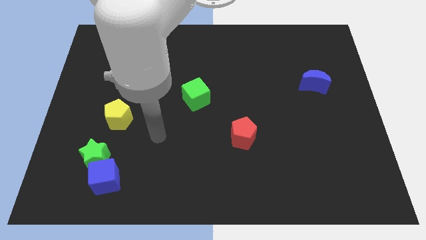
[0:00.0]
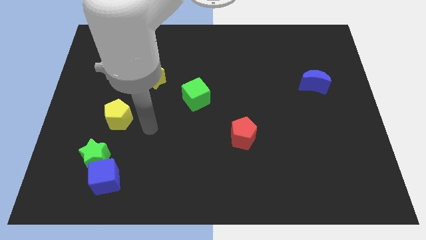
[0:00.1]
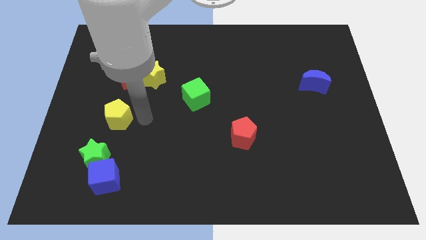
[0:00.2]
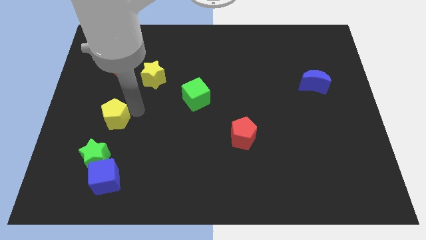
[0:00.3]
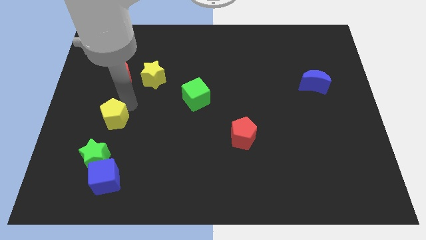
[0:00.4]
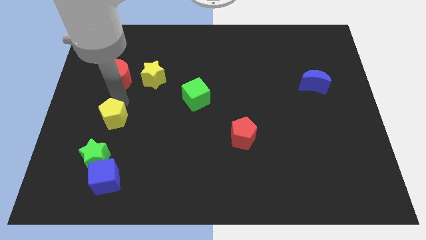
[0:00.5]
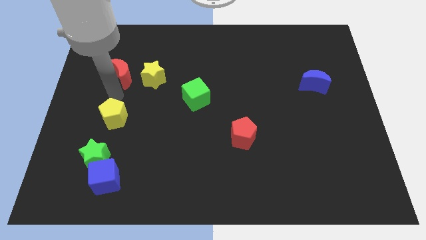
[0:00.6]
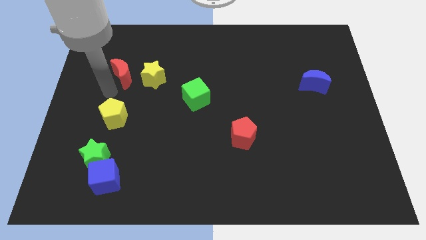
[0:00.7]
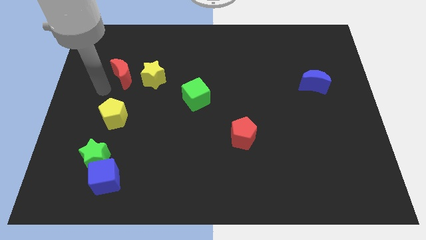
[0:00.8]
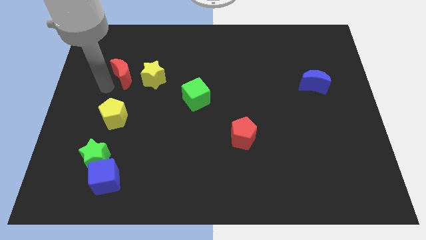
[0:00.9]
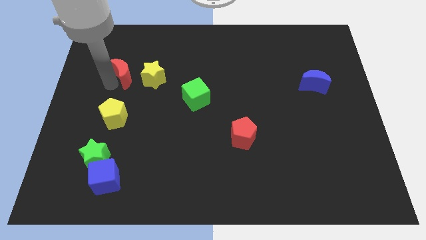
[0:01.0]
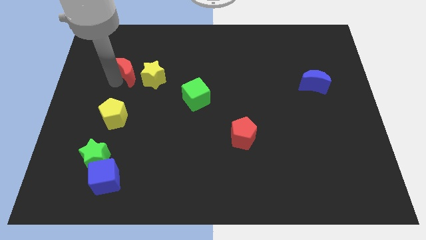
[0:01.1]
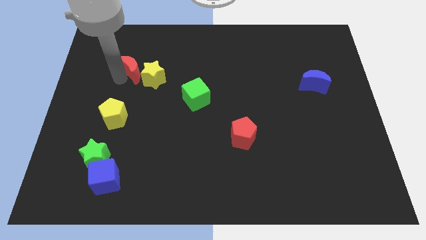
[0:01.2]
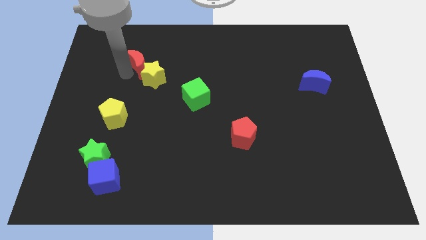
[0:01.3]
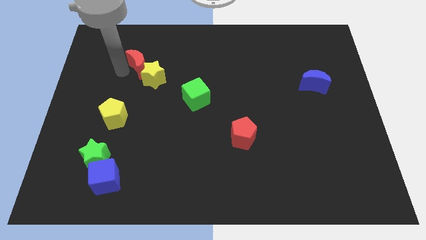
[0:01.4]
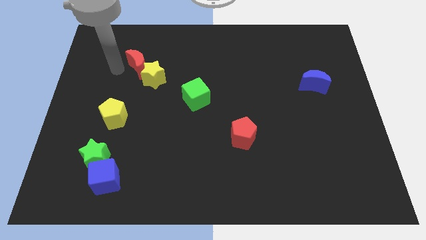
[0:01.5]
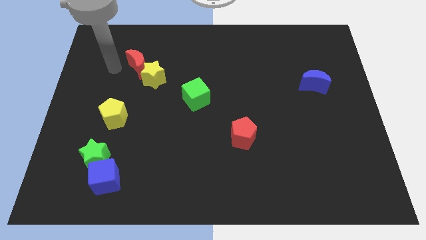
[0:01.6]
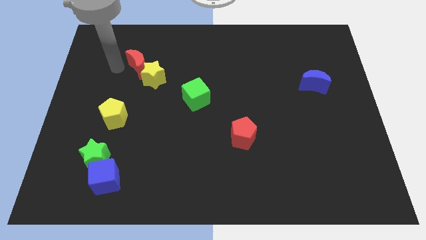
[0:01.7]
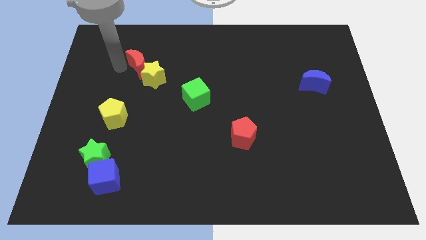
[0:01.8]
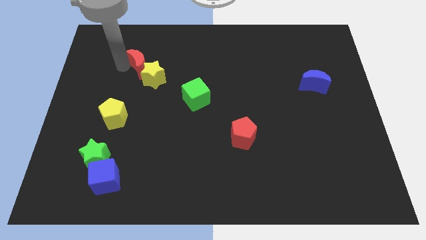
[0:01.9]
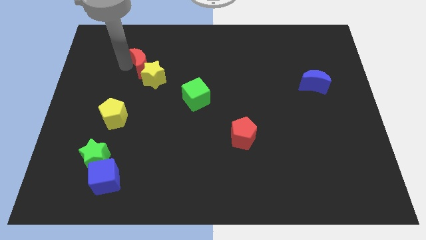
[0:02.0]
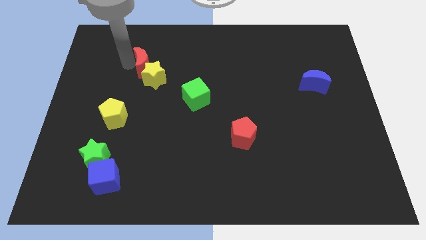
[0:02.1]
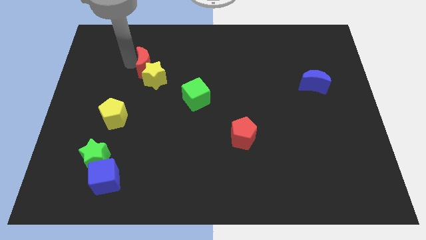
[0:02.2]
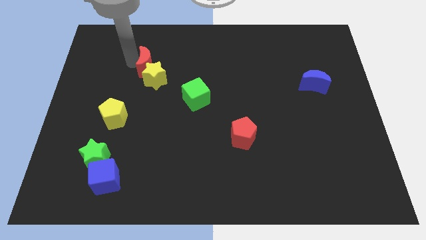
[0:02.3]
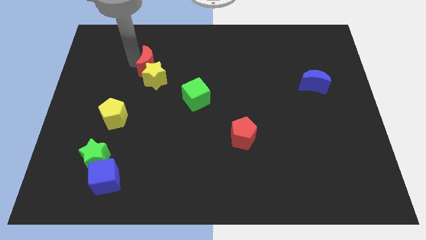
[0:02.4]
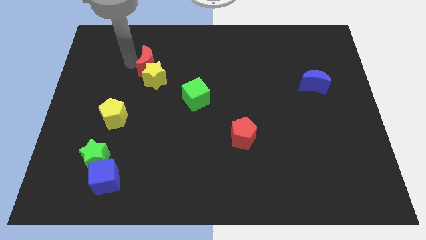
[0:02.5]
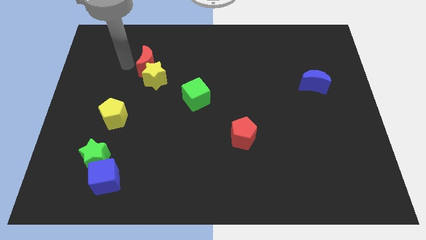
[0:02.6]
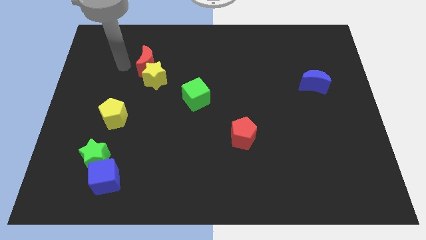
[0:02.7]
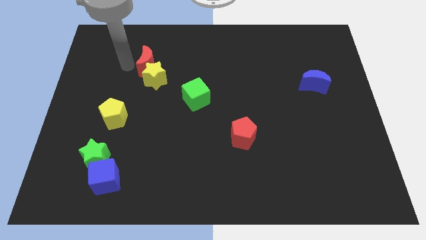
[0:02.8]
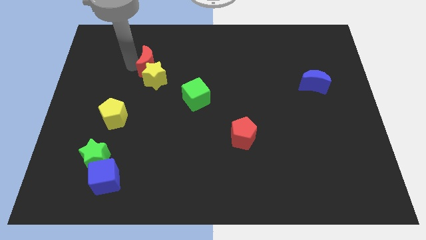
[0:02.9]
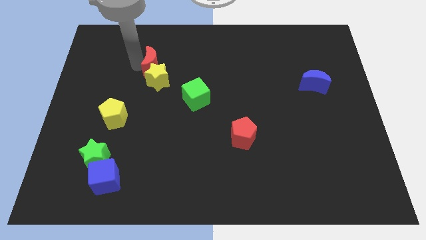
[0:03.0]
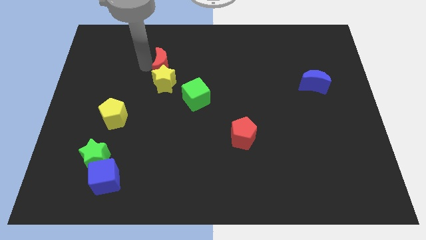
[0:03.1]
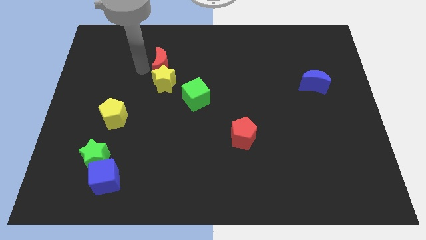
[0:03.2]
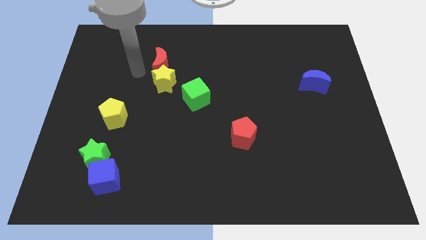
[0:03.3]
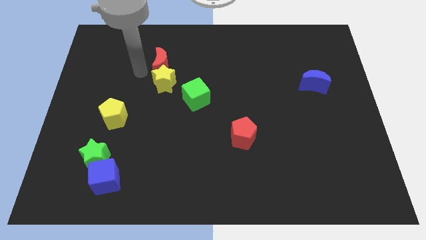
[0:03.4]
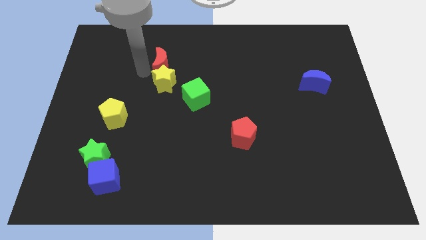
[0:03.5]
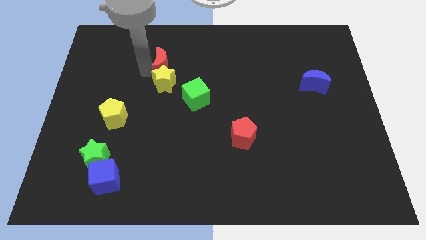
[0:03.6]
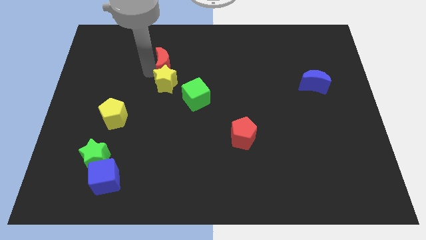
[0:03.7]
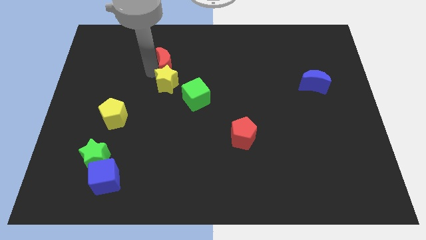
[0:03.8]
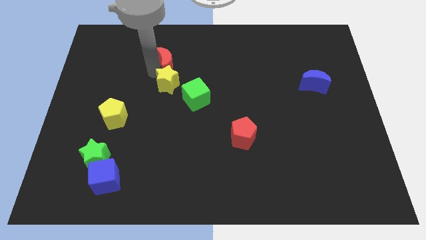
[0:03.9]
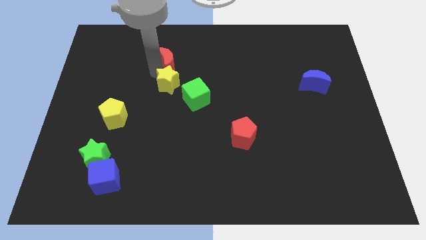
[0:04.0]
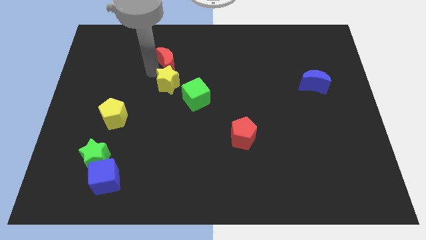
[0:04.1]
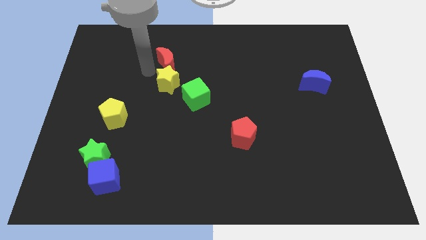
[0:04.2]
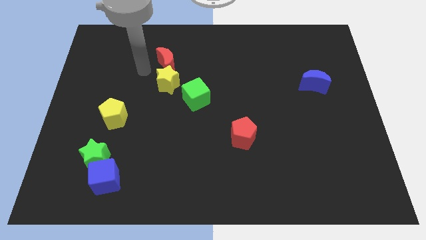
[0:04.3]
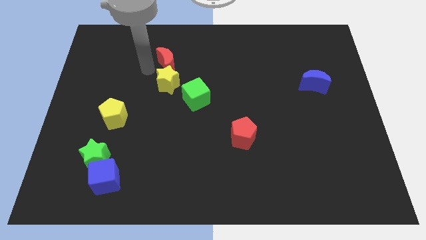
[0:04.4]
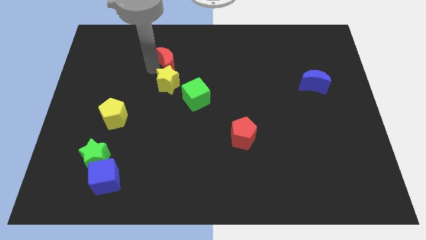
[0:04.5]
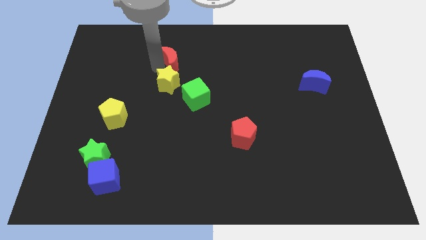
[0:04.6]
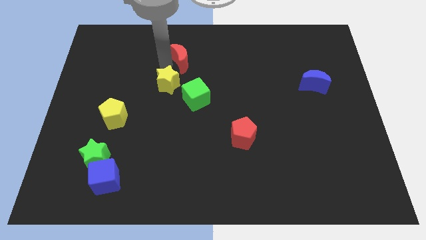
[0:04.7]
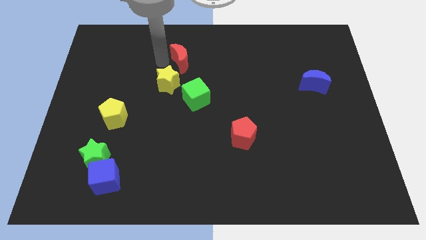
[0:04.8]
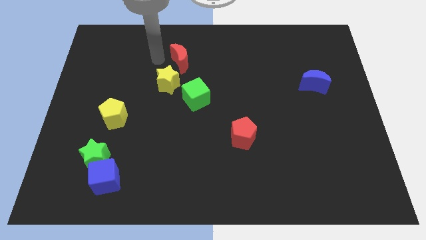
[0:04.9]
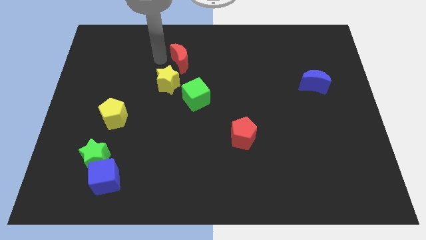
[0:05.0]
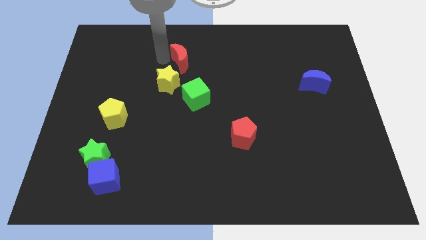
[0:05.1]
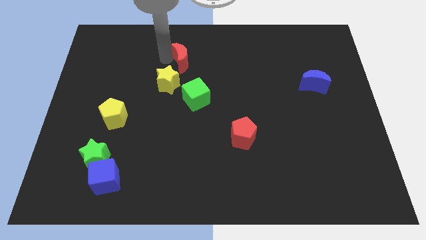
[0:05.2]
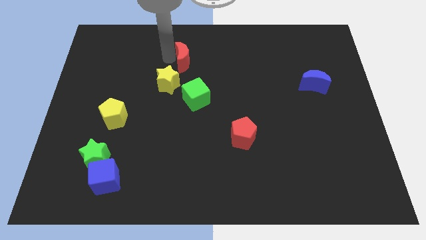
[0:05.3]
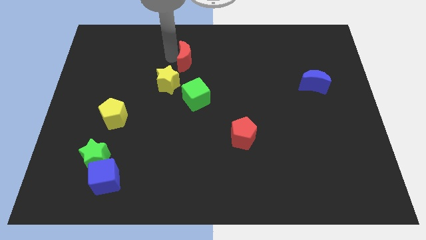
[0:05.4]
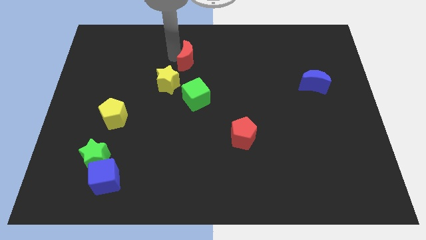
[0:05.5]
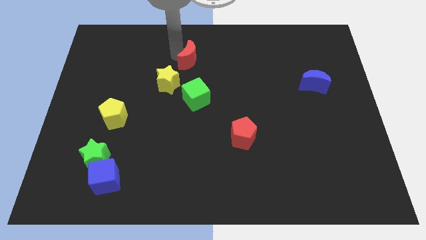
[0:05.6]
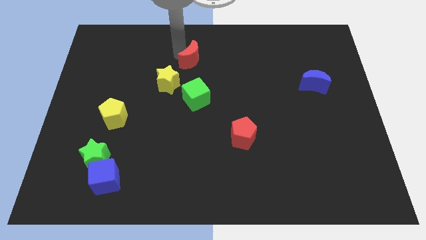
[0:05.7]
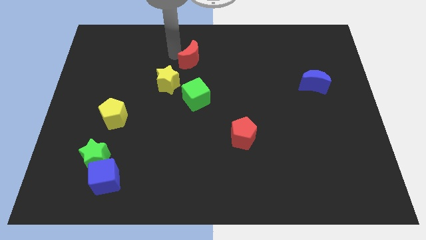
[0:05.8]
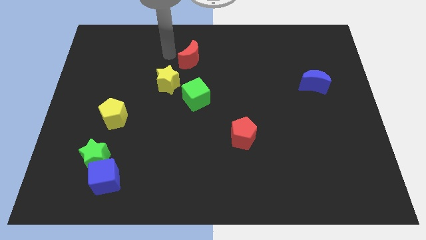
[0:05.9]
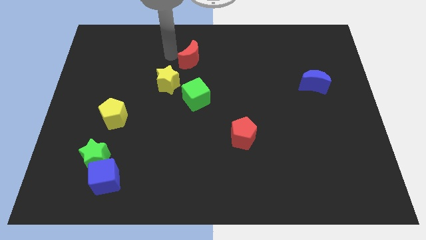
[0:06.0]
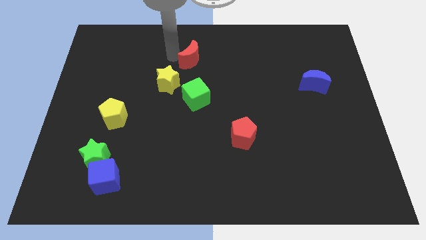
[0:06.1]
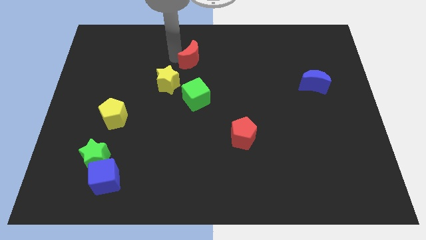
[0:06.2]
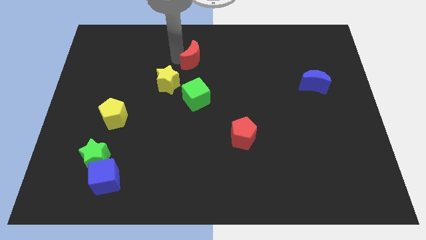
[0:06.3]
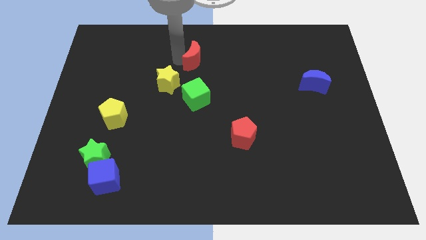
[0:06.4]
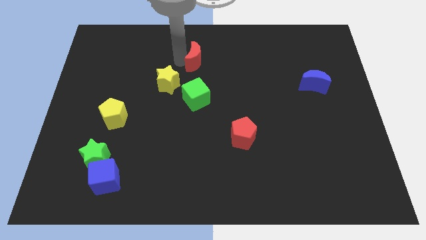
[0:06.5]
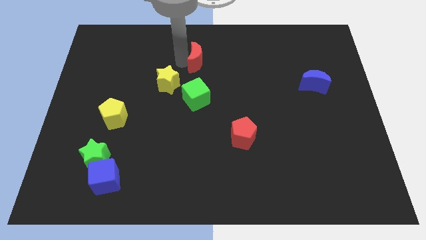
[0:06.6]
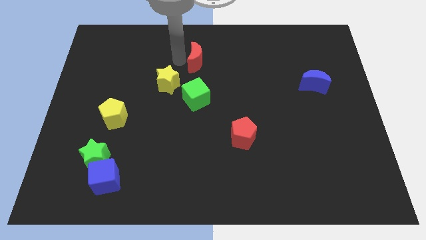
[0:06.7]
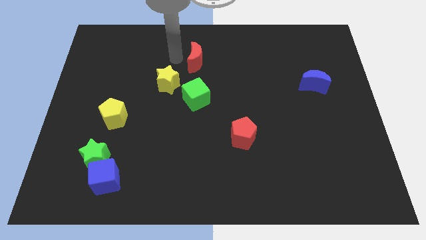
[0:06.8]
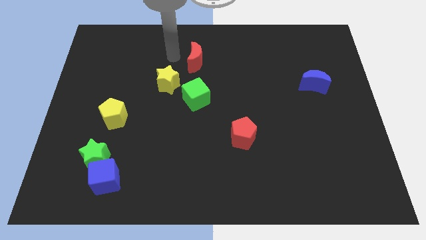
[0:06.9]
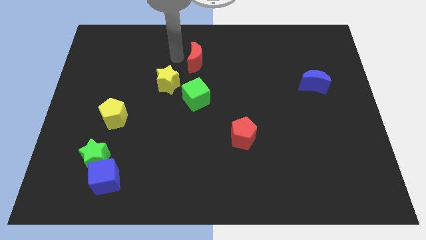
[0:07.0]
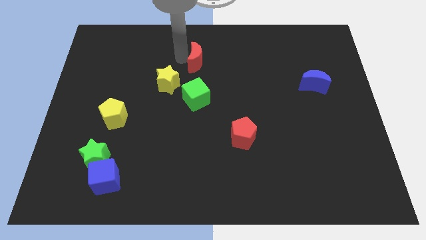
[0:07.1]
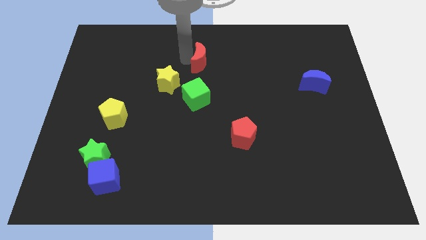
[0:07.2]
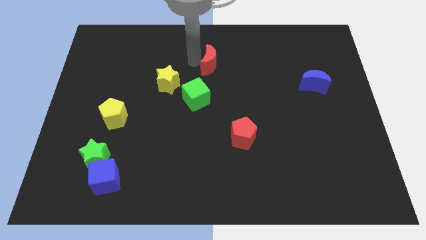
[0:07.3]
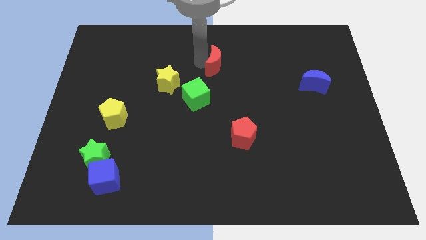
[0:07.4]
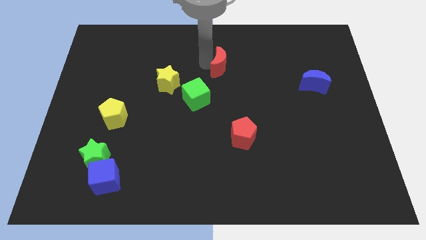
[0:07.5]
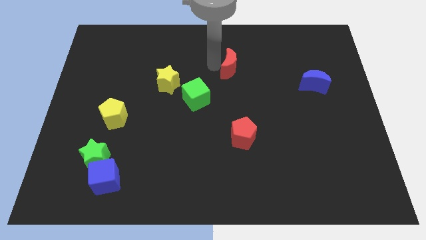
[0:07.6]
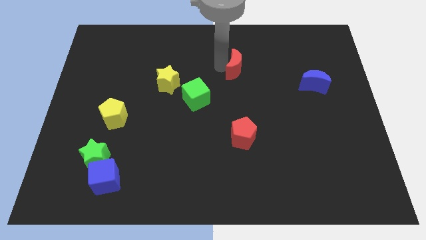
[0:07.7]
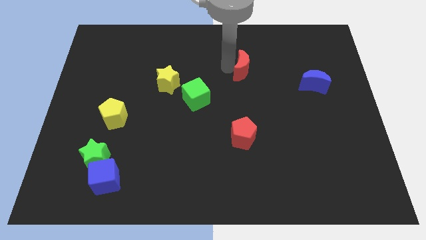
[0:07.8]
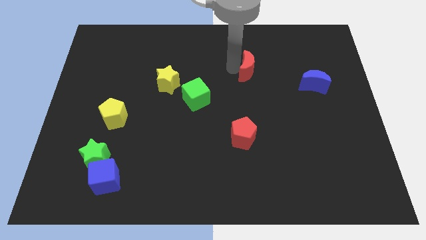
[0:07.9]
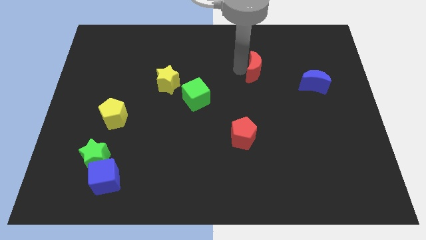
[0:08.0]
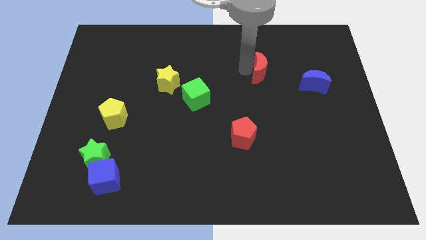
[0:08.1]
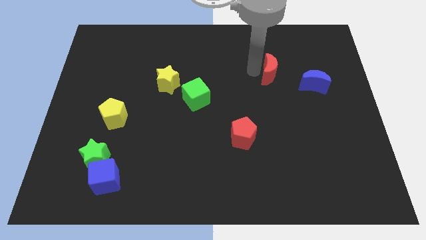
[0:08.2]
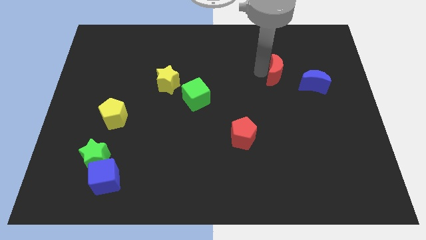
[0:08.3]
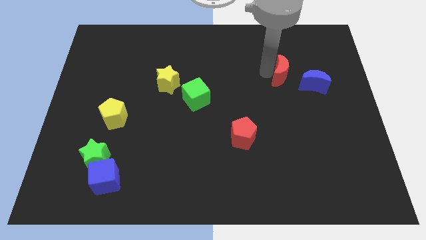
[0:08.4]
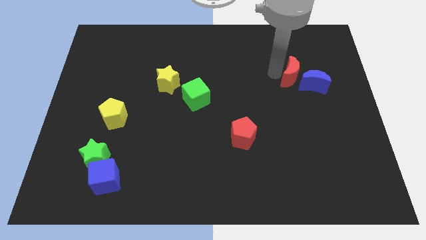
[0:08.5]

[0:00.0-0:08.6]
slide the red moon close to the blue moon
